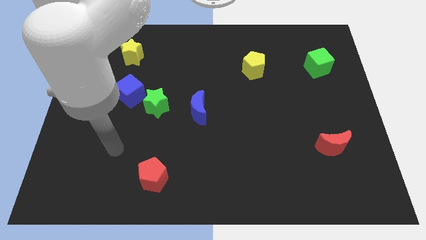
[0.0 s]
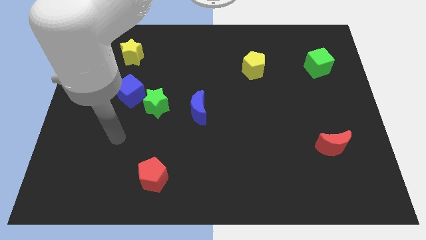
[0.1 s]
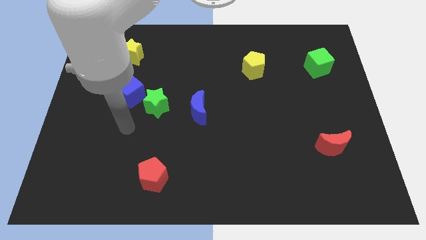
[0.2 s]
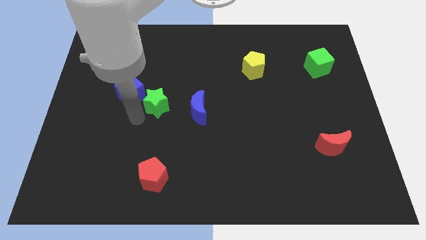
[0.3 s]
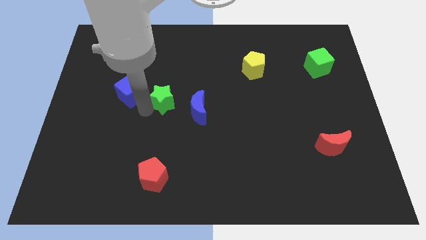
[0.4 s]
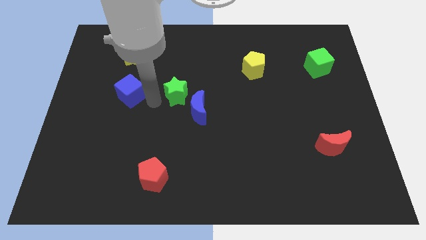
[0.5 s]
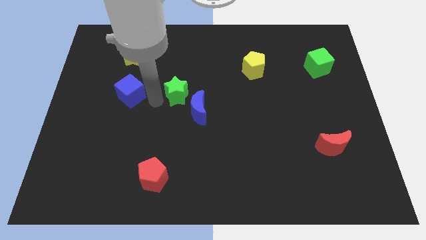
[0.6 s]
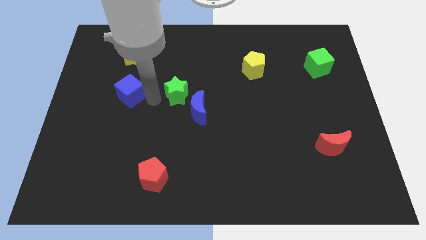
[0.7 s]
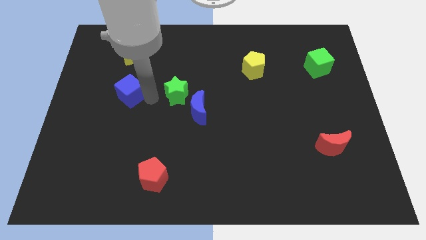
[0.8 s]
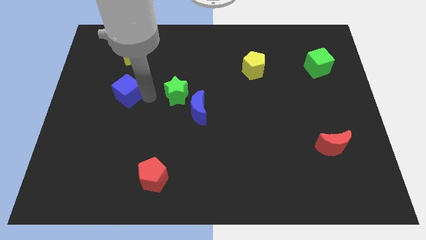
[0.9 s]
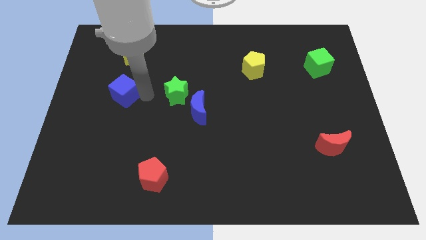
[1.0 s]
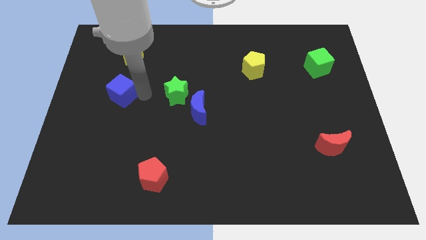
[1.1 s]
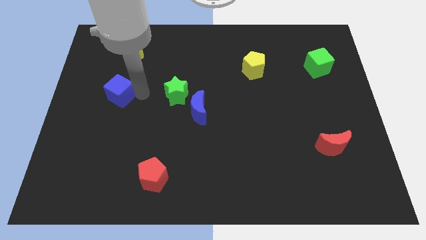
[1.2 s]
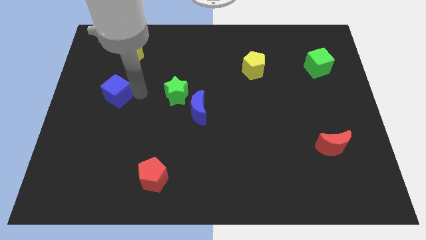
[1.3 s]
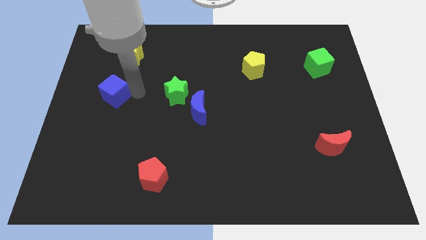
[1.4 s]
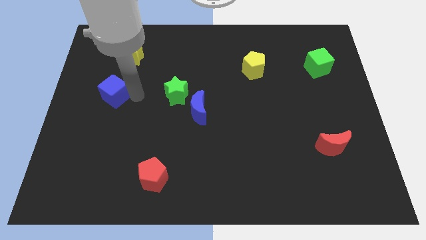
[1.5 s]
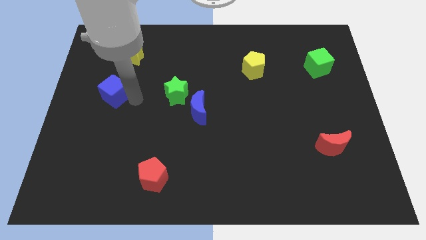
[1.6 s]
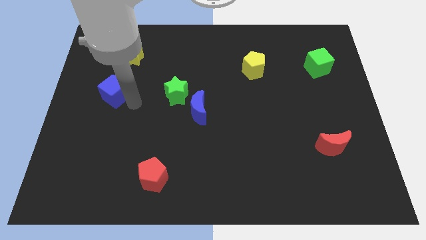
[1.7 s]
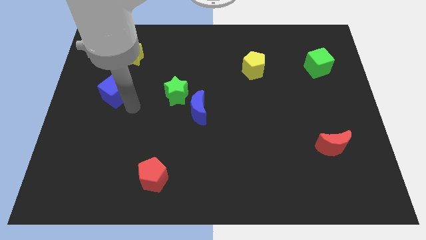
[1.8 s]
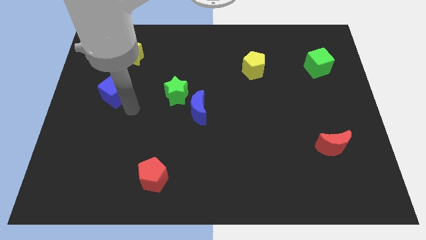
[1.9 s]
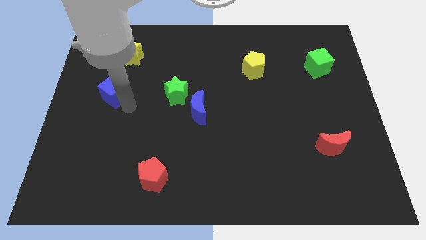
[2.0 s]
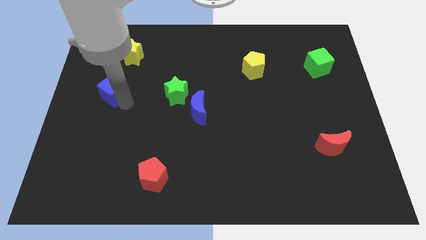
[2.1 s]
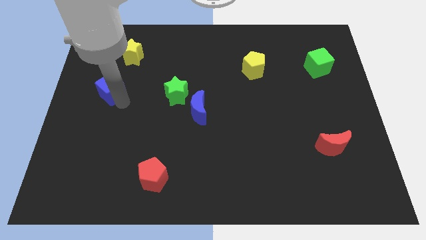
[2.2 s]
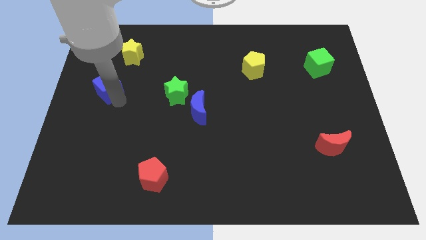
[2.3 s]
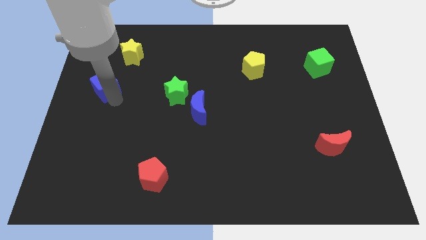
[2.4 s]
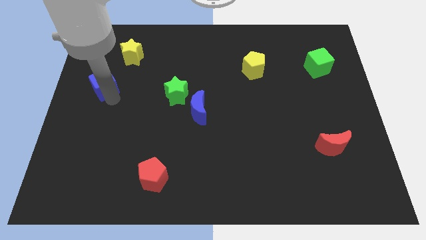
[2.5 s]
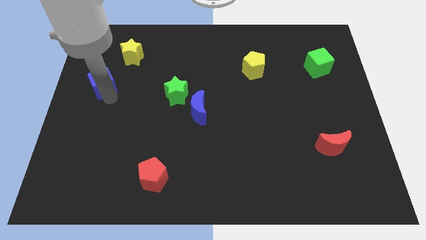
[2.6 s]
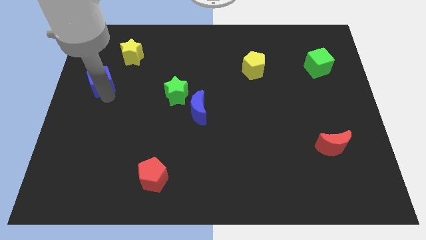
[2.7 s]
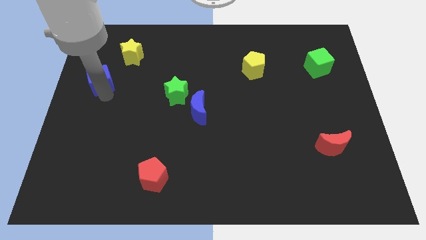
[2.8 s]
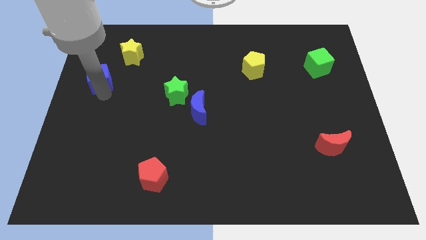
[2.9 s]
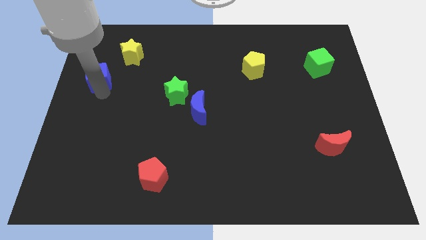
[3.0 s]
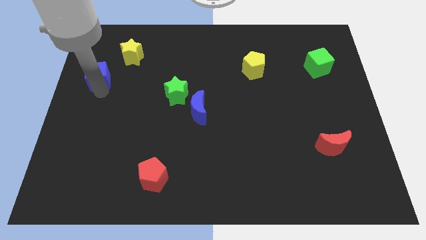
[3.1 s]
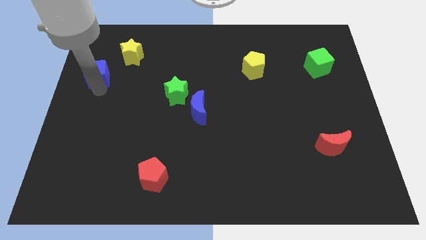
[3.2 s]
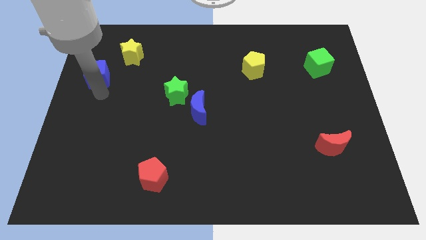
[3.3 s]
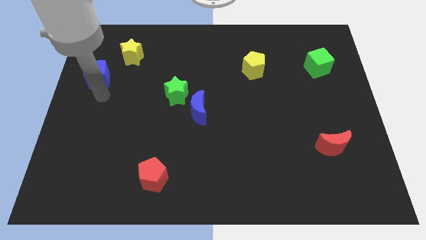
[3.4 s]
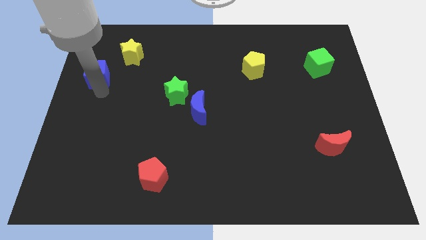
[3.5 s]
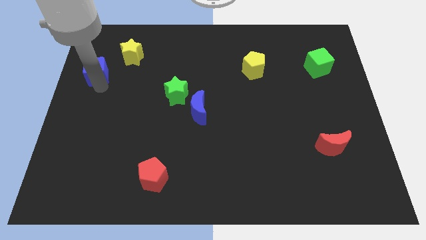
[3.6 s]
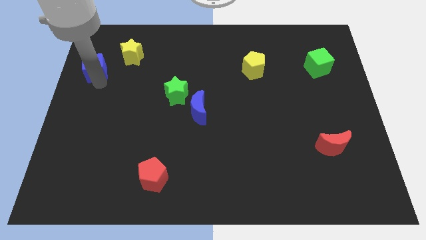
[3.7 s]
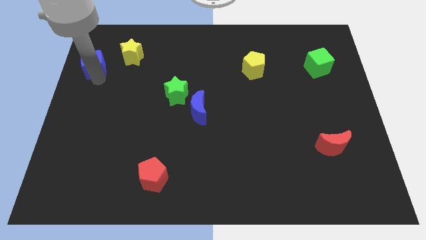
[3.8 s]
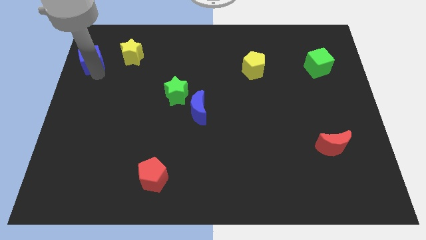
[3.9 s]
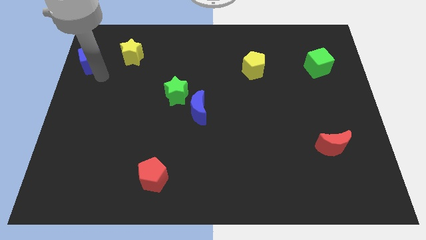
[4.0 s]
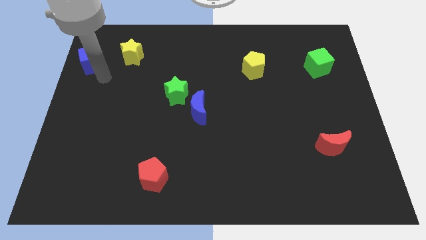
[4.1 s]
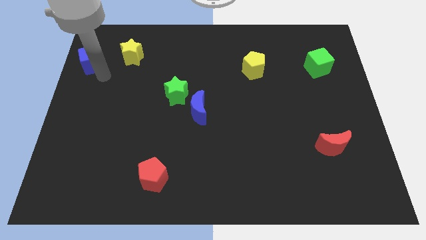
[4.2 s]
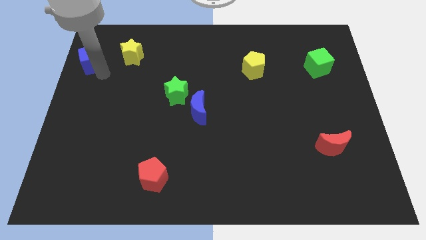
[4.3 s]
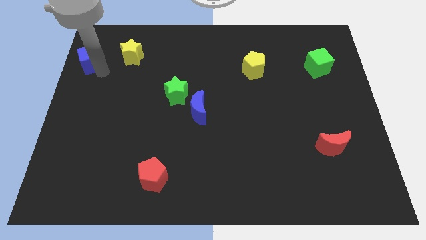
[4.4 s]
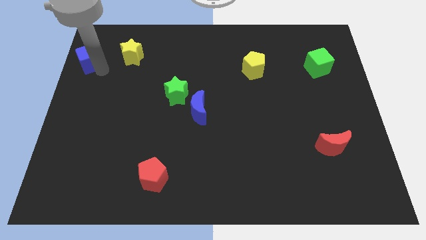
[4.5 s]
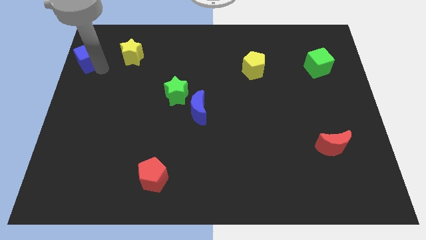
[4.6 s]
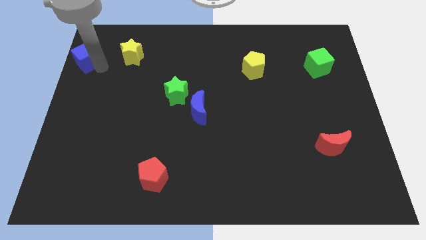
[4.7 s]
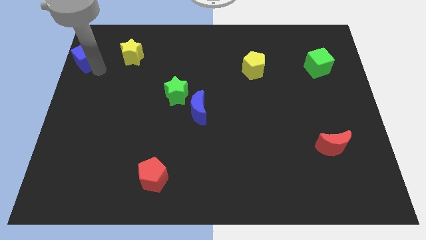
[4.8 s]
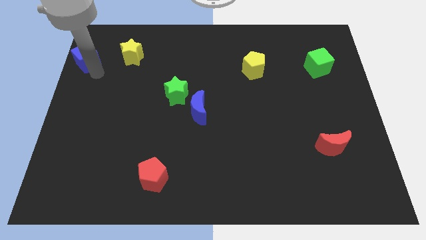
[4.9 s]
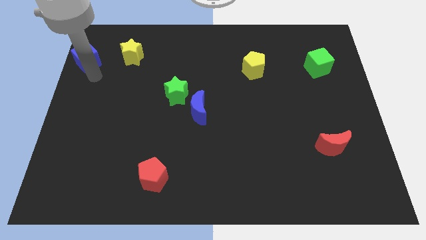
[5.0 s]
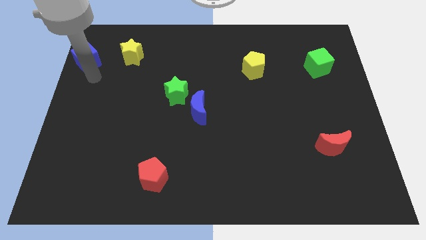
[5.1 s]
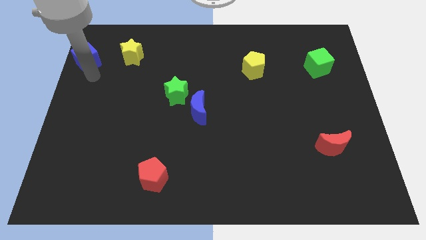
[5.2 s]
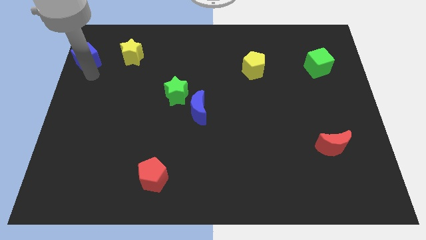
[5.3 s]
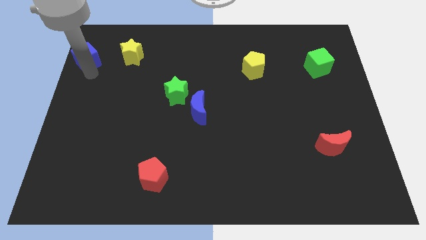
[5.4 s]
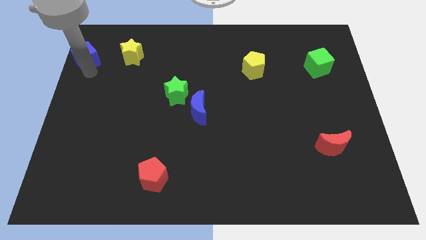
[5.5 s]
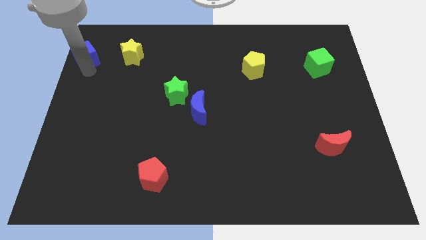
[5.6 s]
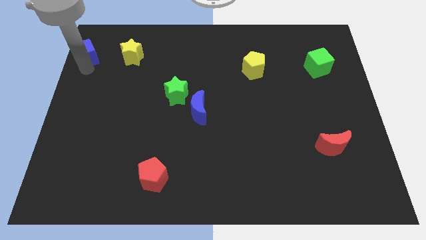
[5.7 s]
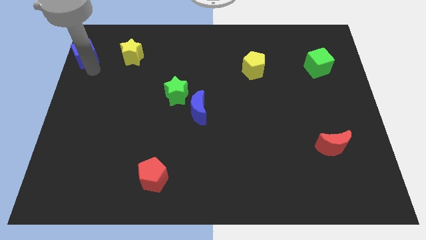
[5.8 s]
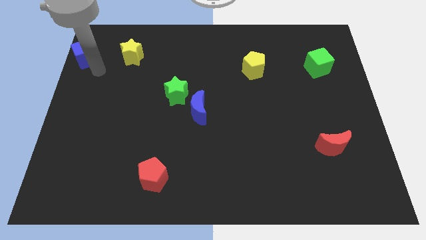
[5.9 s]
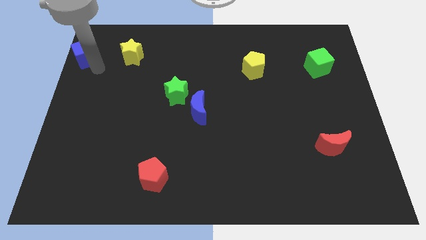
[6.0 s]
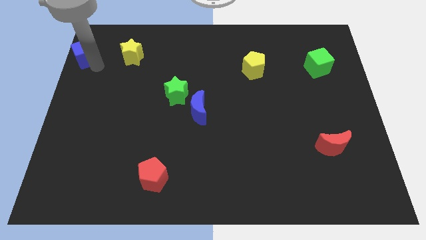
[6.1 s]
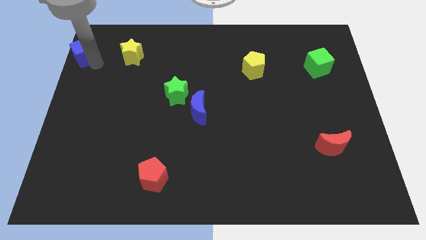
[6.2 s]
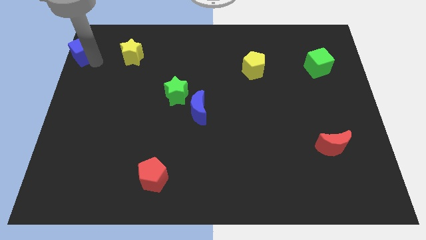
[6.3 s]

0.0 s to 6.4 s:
move the blue cube to the top left

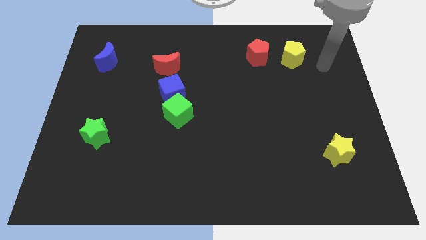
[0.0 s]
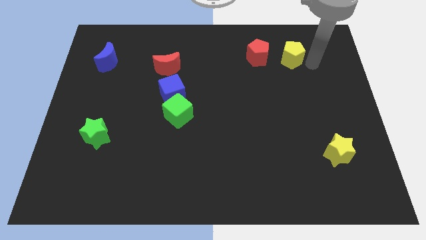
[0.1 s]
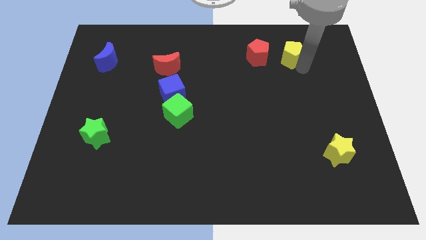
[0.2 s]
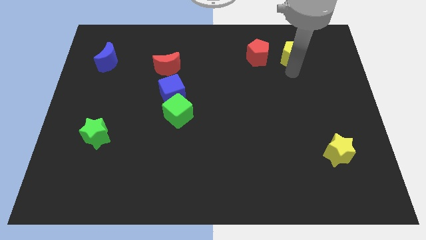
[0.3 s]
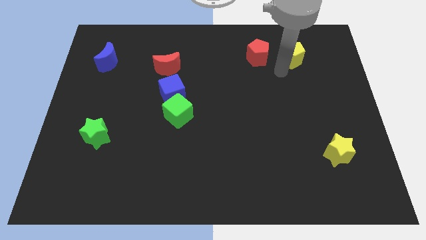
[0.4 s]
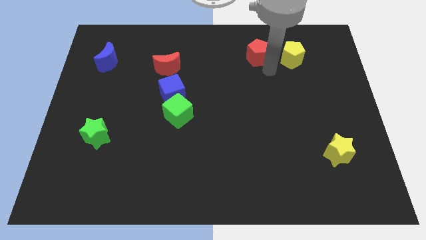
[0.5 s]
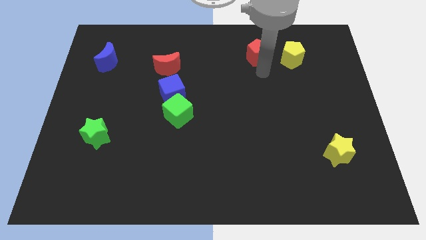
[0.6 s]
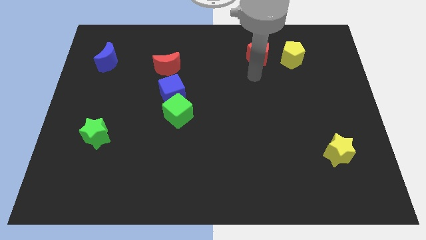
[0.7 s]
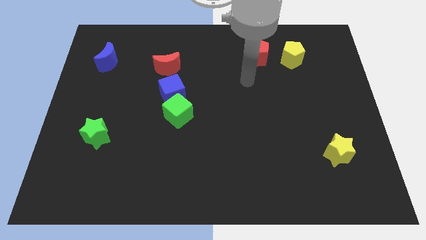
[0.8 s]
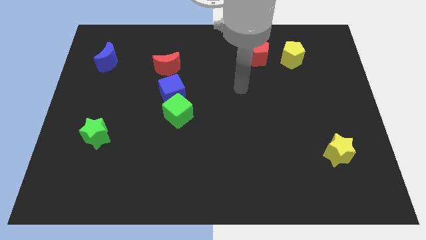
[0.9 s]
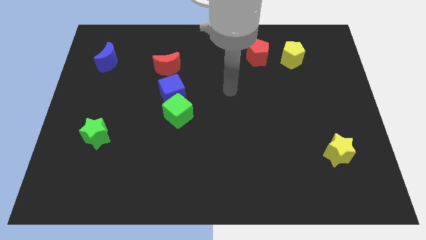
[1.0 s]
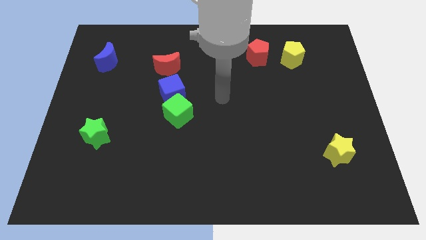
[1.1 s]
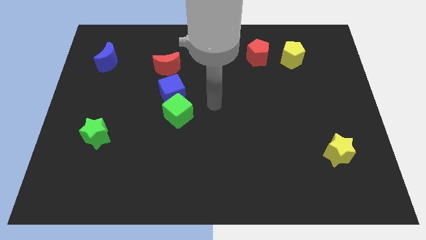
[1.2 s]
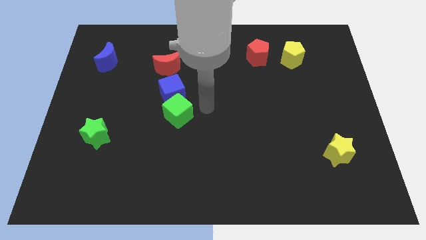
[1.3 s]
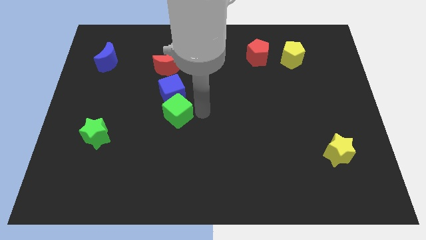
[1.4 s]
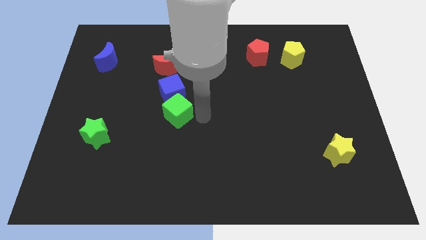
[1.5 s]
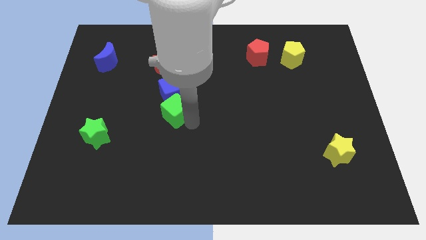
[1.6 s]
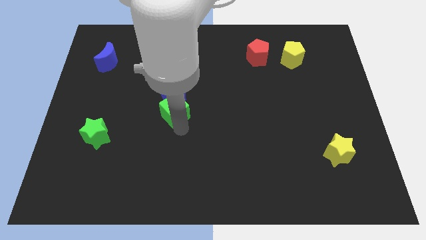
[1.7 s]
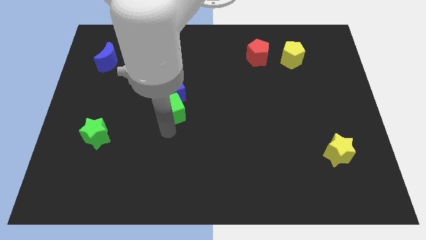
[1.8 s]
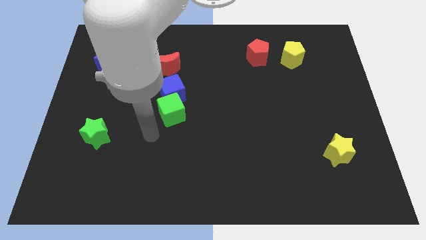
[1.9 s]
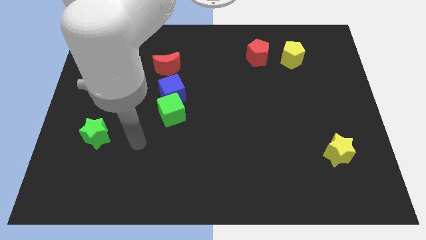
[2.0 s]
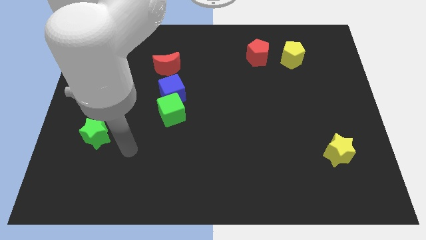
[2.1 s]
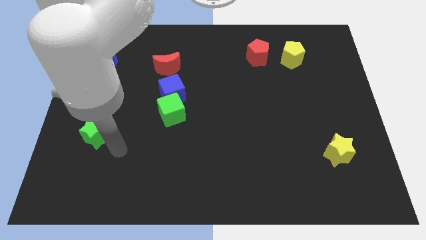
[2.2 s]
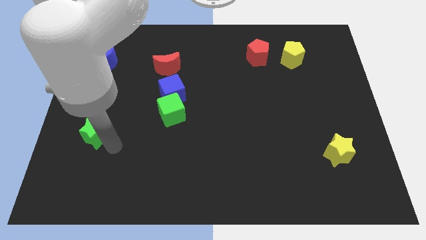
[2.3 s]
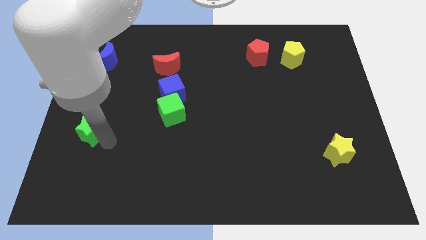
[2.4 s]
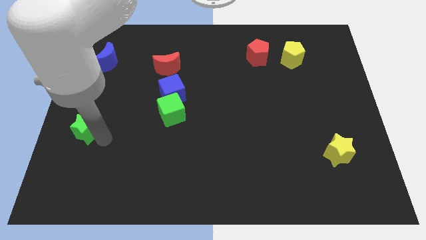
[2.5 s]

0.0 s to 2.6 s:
push the green star to the center left
